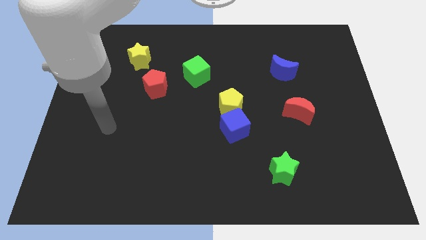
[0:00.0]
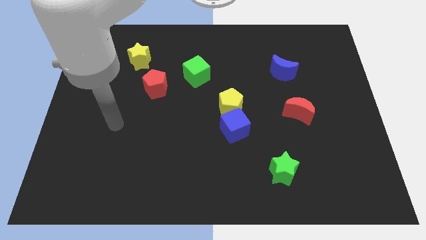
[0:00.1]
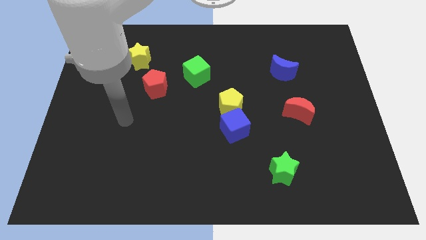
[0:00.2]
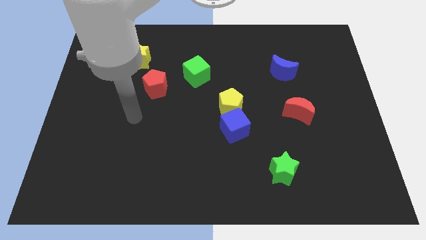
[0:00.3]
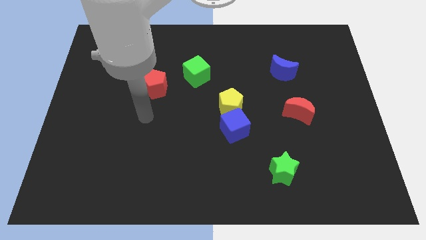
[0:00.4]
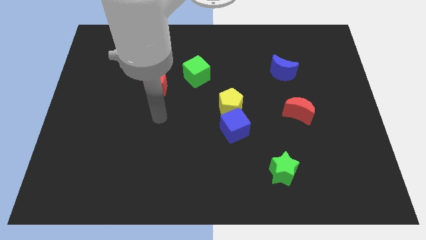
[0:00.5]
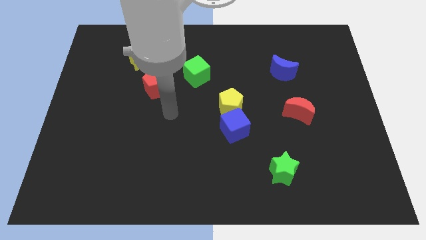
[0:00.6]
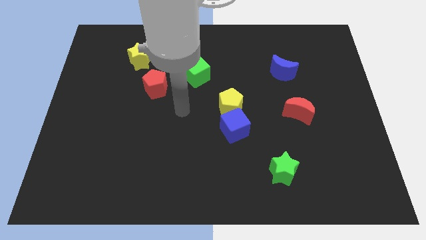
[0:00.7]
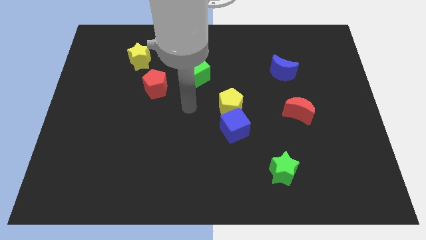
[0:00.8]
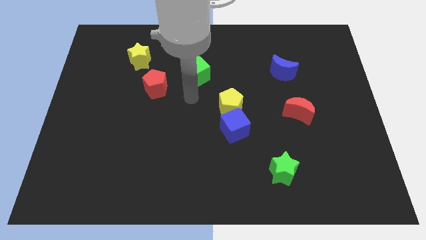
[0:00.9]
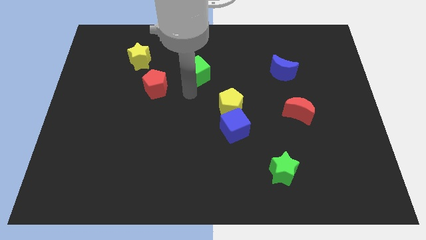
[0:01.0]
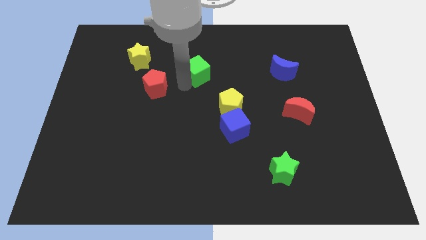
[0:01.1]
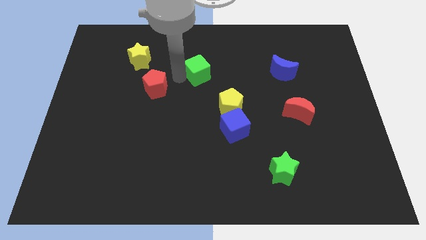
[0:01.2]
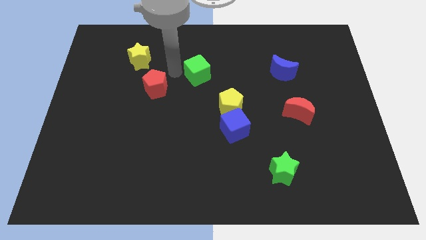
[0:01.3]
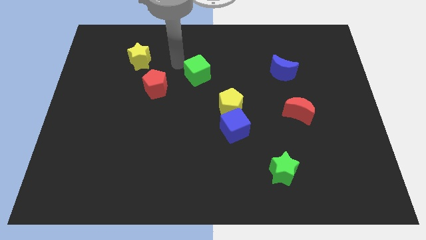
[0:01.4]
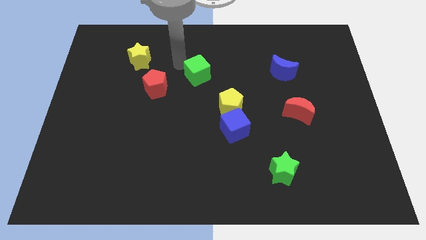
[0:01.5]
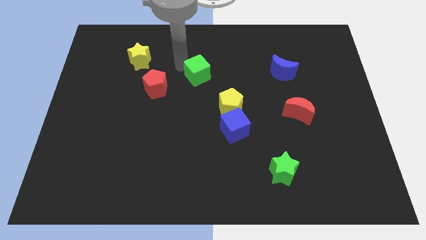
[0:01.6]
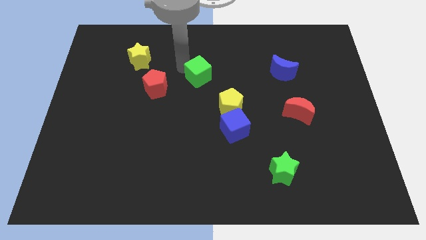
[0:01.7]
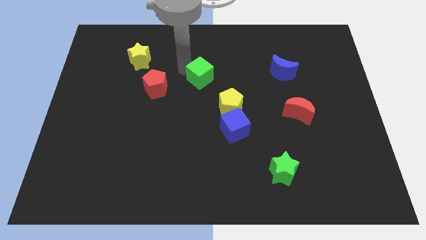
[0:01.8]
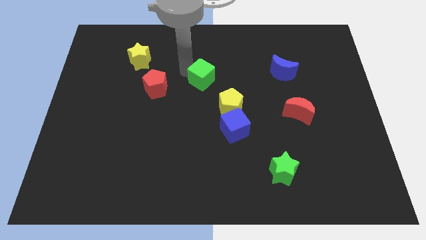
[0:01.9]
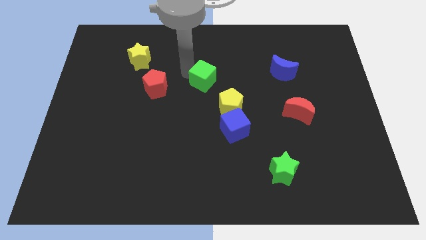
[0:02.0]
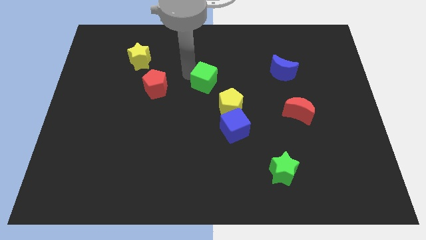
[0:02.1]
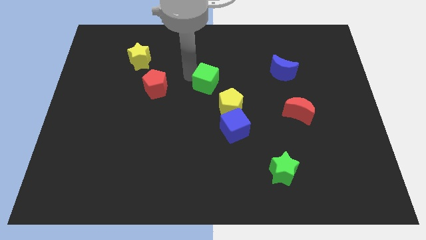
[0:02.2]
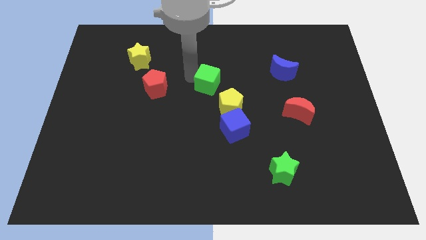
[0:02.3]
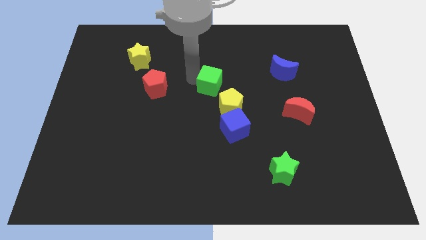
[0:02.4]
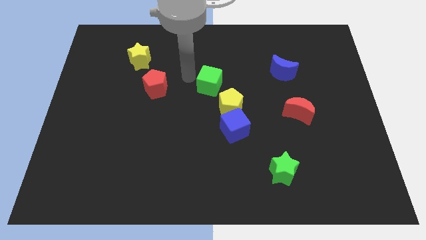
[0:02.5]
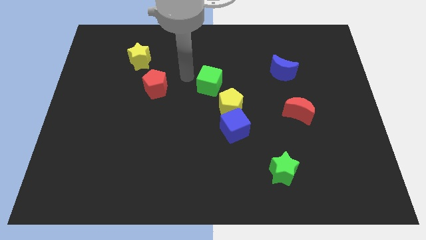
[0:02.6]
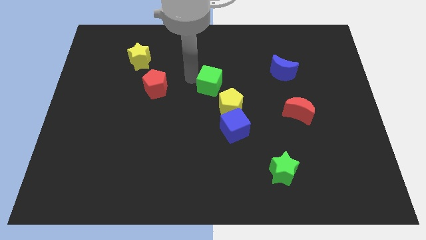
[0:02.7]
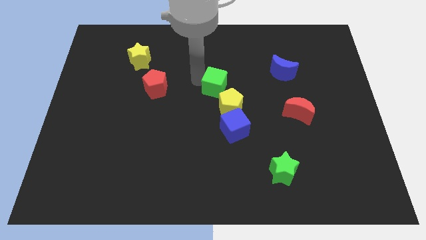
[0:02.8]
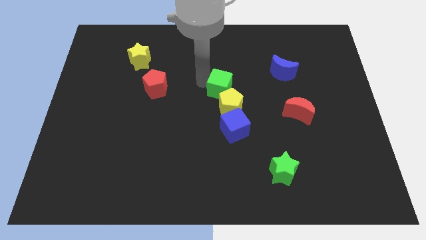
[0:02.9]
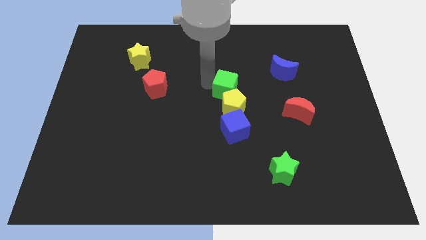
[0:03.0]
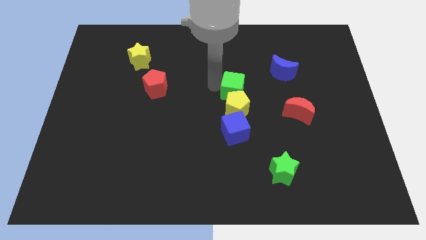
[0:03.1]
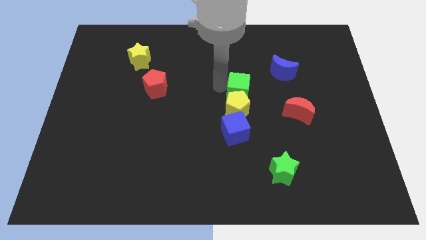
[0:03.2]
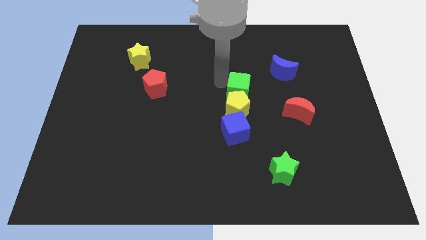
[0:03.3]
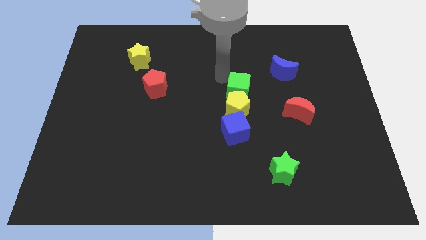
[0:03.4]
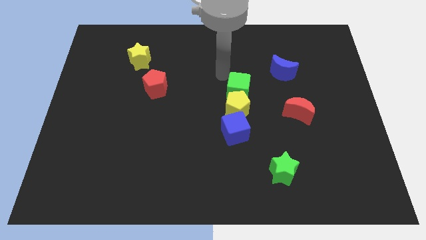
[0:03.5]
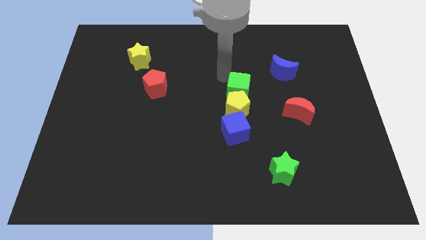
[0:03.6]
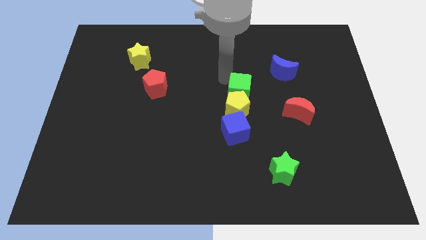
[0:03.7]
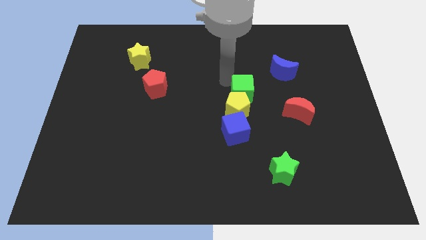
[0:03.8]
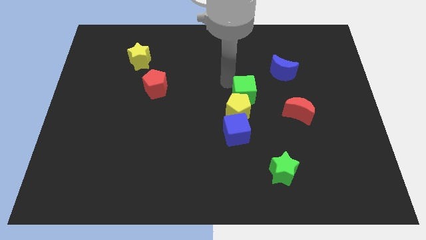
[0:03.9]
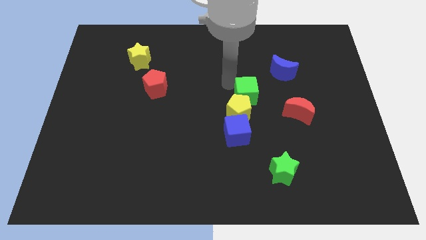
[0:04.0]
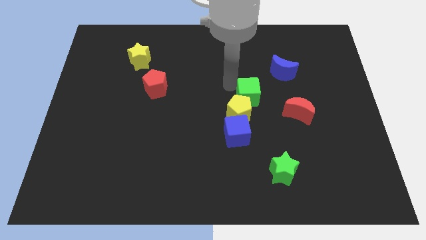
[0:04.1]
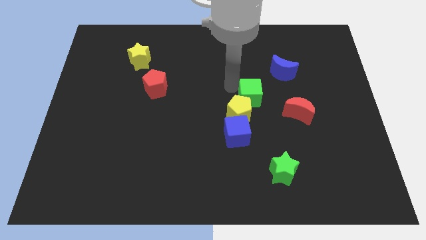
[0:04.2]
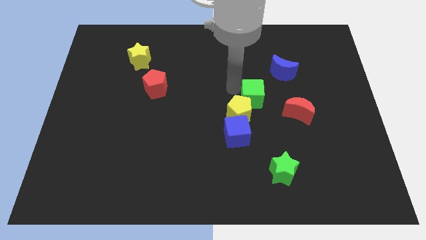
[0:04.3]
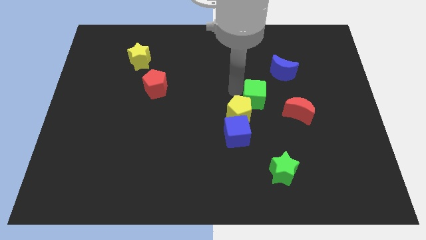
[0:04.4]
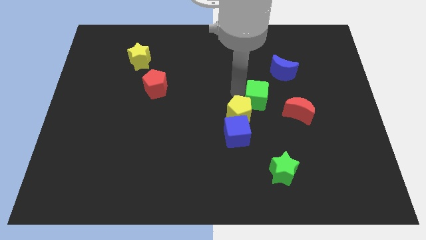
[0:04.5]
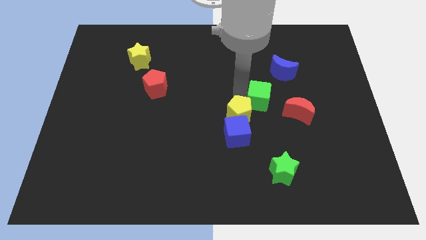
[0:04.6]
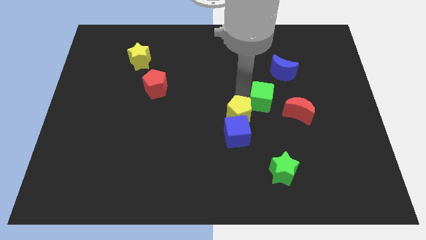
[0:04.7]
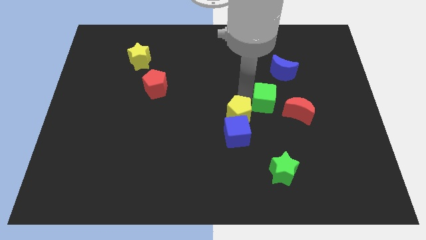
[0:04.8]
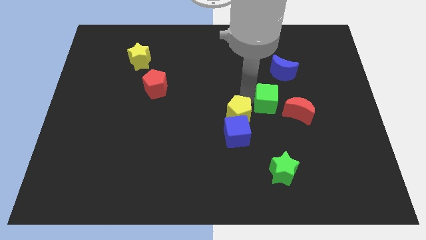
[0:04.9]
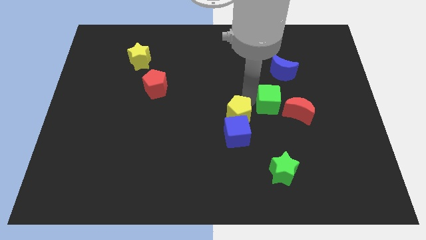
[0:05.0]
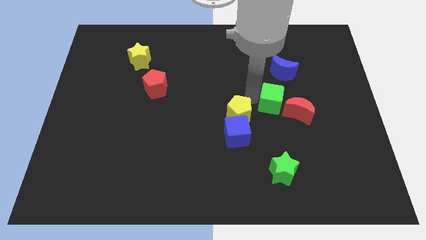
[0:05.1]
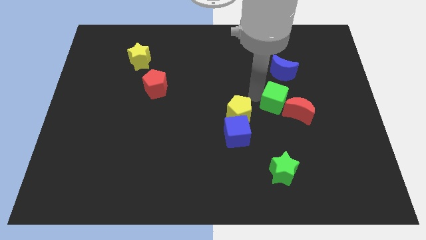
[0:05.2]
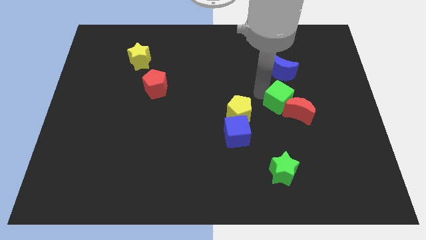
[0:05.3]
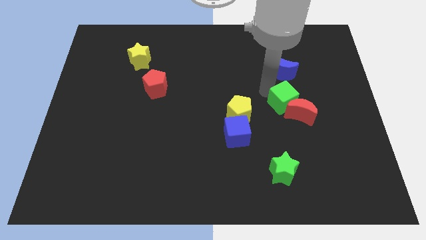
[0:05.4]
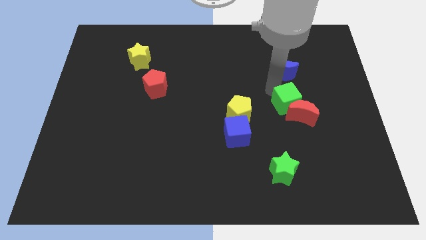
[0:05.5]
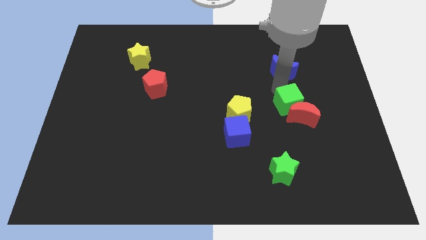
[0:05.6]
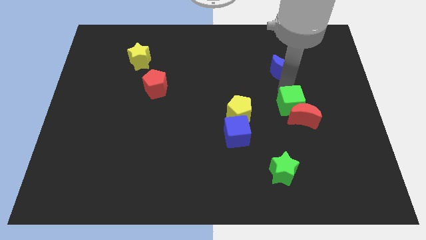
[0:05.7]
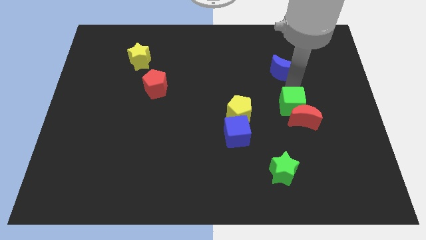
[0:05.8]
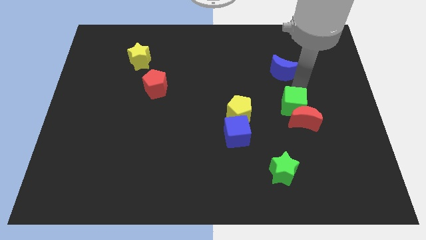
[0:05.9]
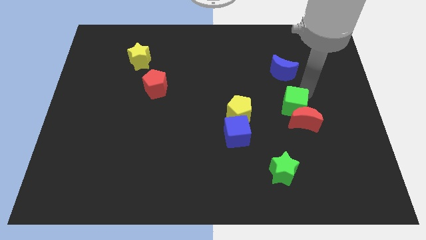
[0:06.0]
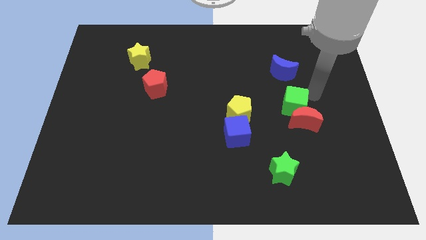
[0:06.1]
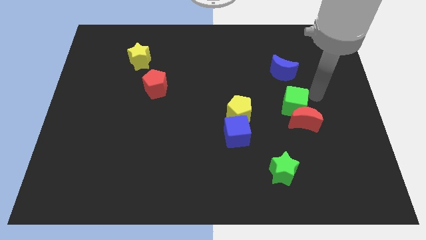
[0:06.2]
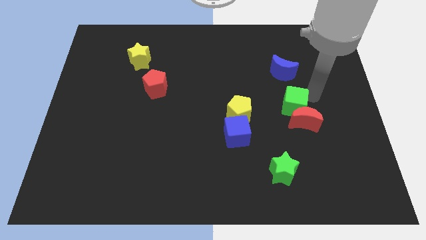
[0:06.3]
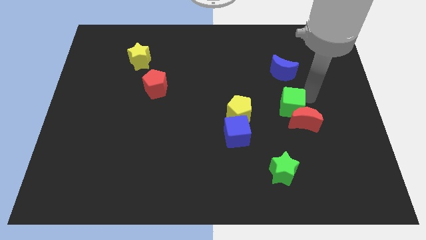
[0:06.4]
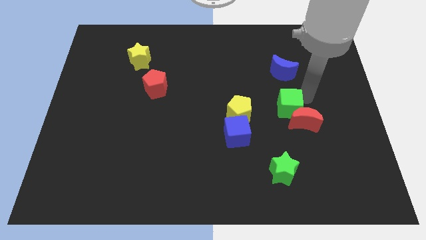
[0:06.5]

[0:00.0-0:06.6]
push the green cube down and then to the right

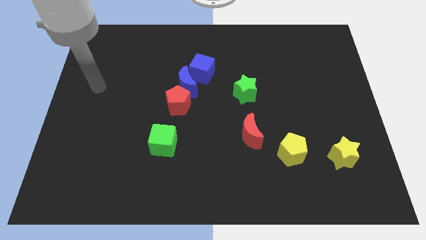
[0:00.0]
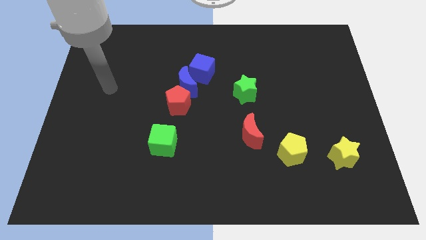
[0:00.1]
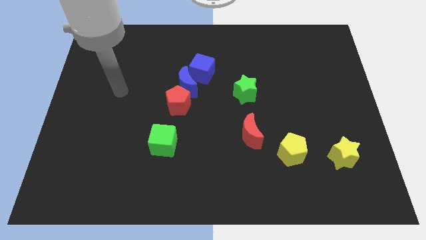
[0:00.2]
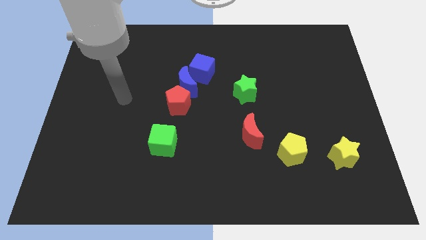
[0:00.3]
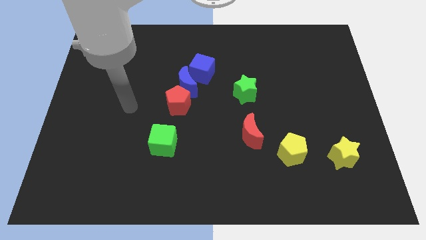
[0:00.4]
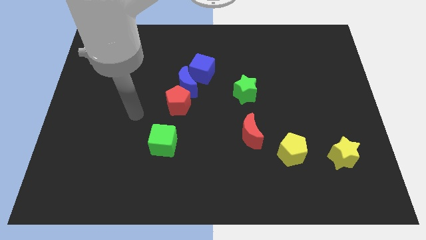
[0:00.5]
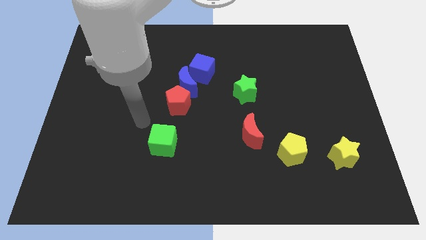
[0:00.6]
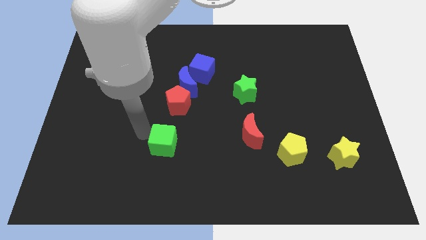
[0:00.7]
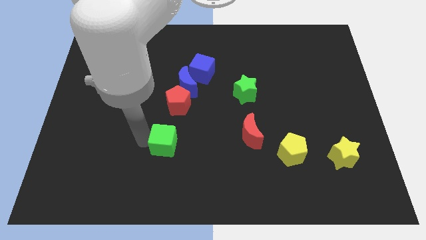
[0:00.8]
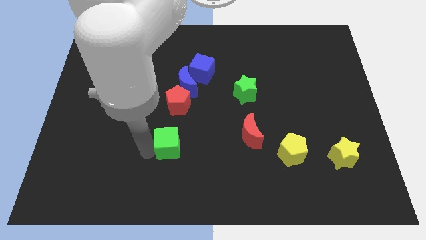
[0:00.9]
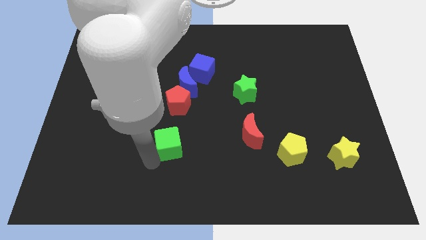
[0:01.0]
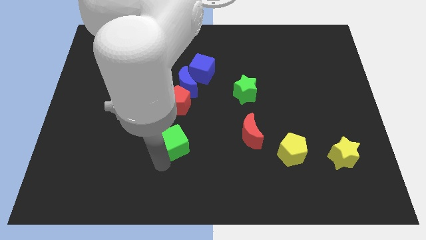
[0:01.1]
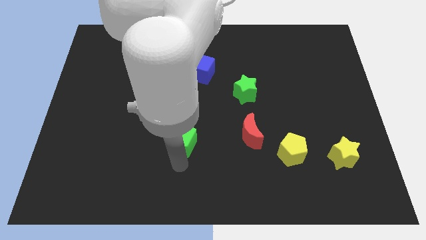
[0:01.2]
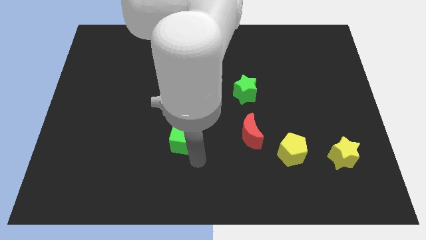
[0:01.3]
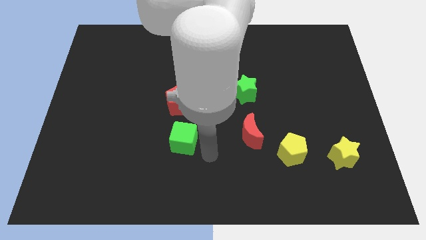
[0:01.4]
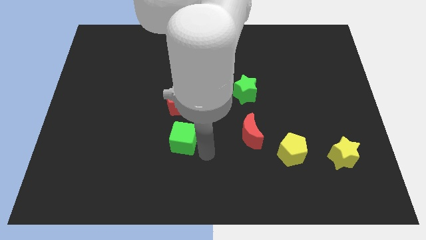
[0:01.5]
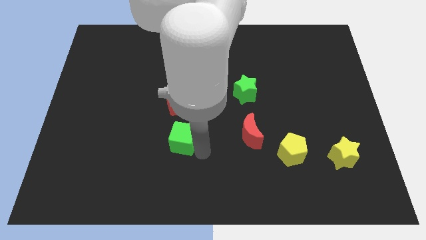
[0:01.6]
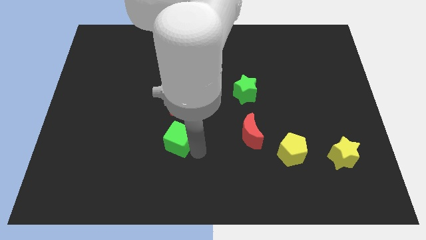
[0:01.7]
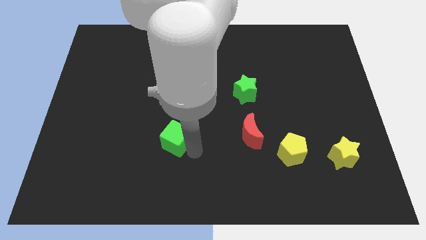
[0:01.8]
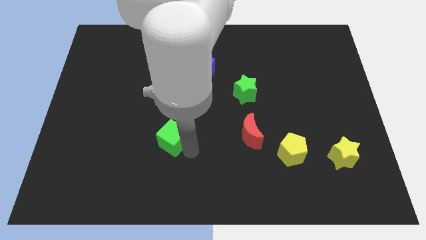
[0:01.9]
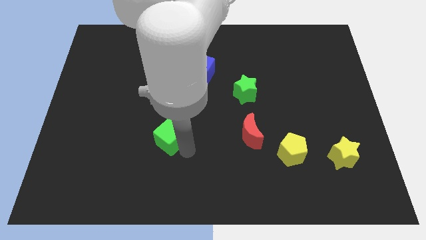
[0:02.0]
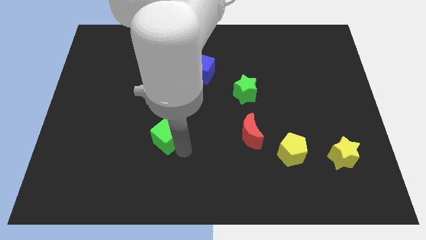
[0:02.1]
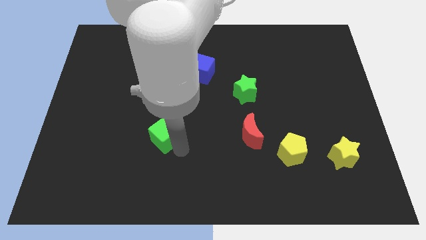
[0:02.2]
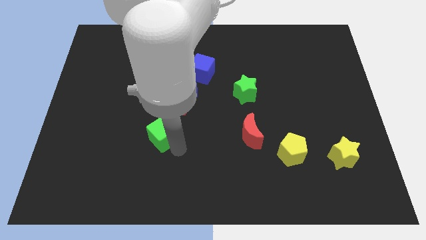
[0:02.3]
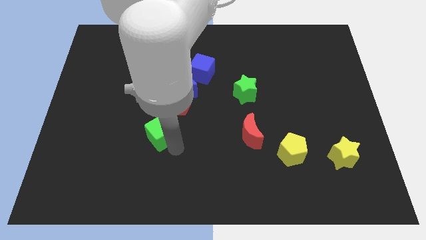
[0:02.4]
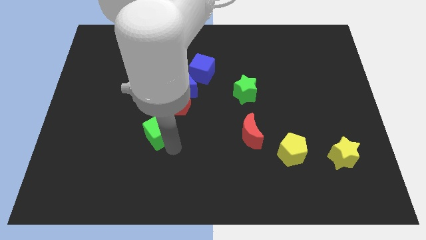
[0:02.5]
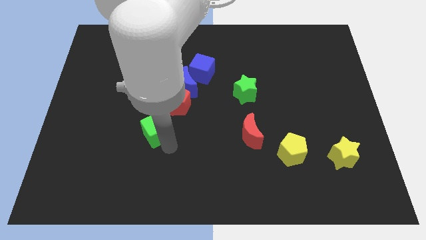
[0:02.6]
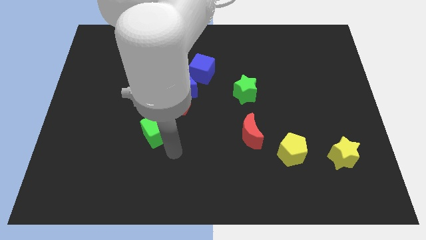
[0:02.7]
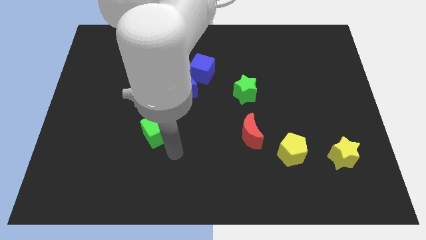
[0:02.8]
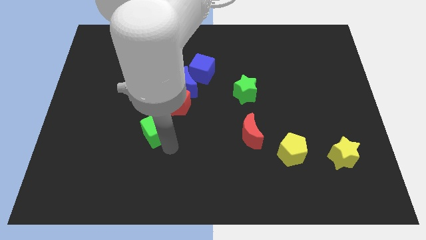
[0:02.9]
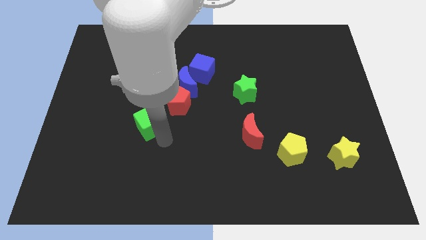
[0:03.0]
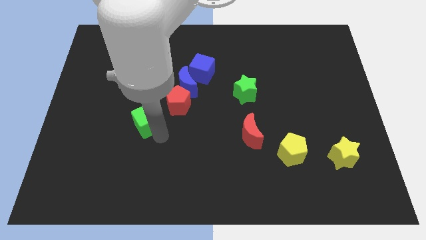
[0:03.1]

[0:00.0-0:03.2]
slightly move the green cube diagonally upwards and left
